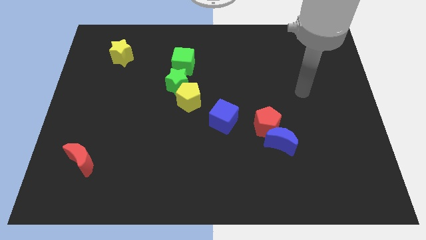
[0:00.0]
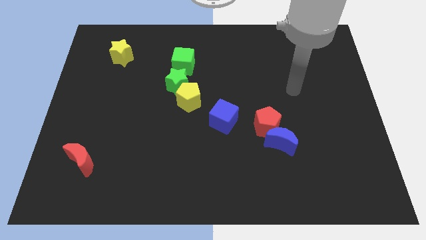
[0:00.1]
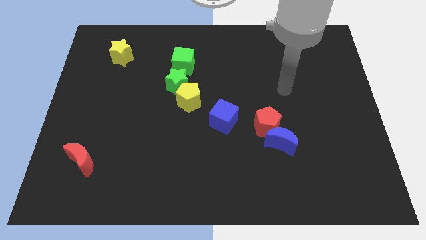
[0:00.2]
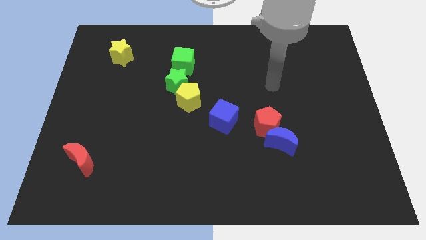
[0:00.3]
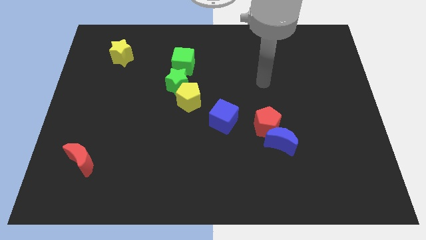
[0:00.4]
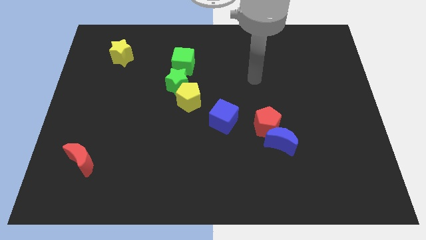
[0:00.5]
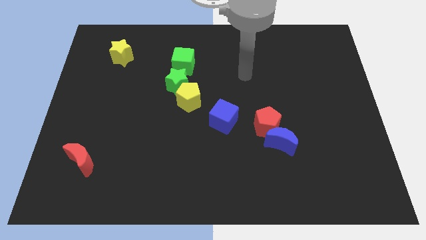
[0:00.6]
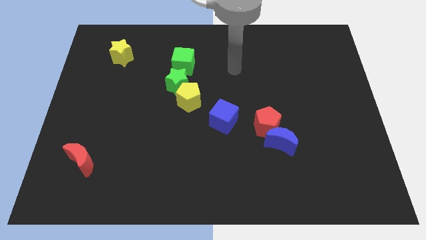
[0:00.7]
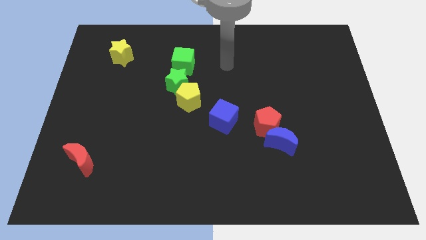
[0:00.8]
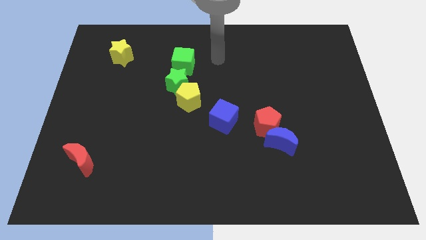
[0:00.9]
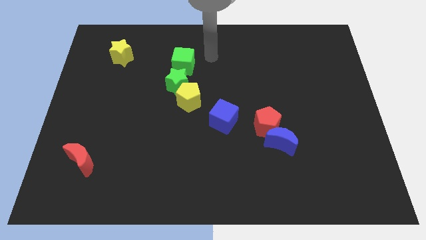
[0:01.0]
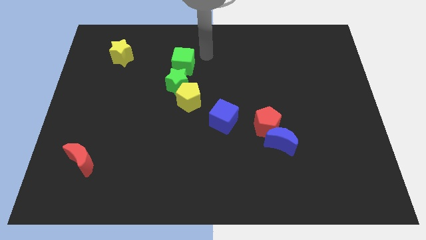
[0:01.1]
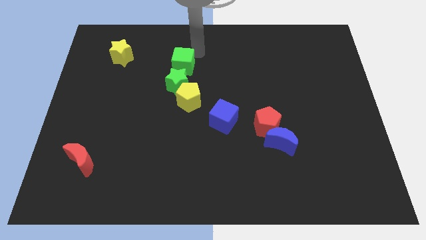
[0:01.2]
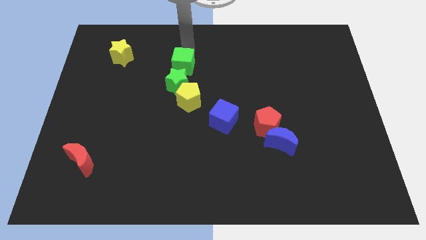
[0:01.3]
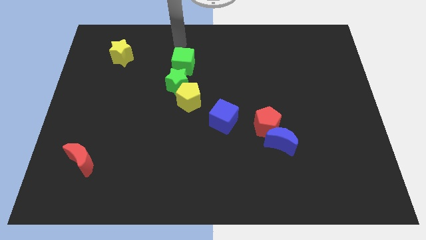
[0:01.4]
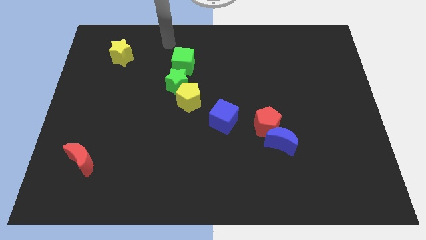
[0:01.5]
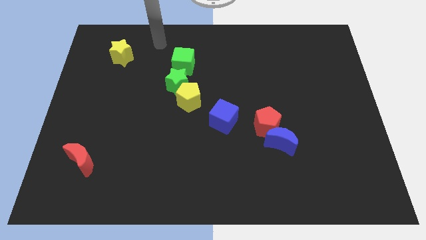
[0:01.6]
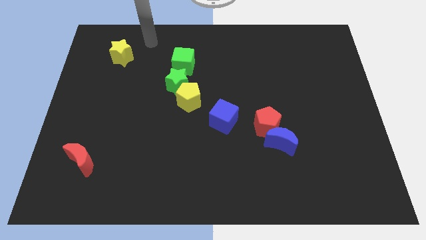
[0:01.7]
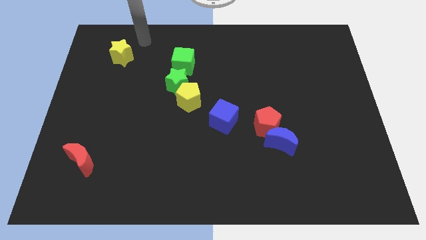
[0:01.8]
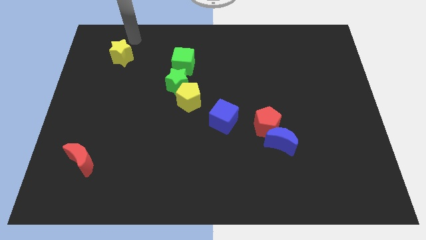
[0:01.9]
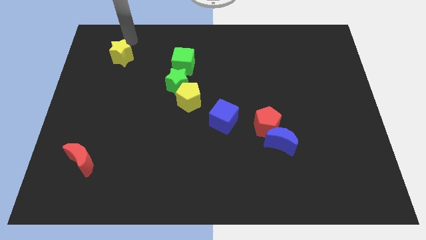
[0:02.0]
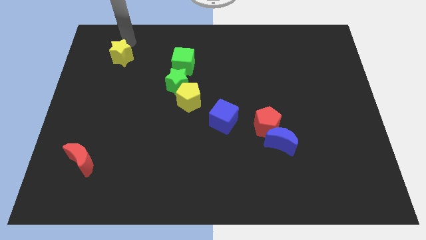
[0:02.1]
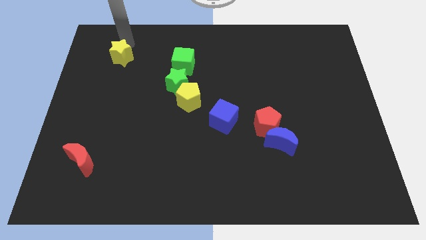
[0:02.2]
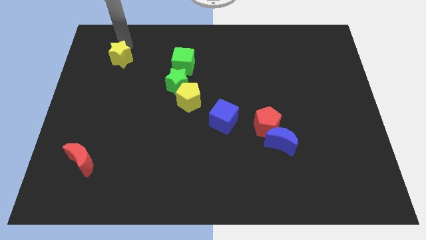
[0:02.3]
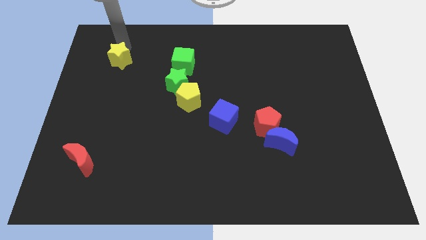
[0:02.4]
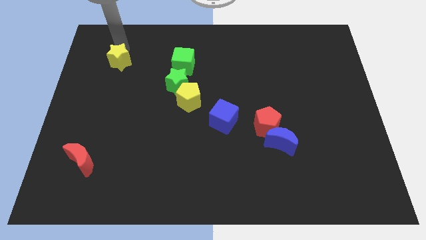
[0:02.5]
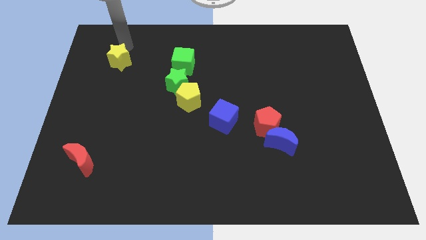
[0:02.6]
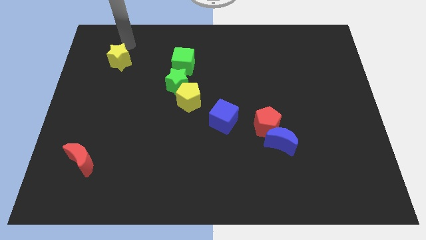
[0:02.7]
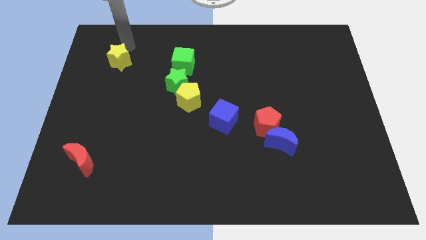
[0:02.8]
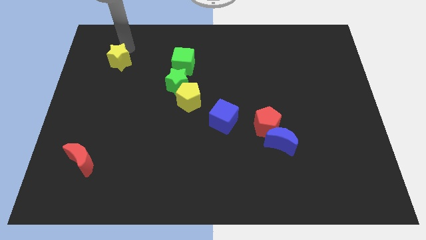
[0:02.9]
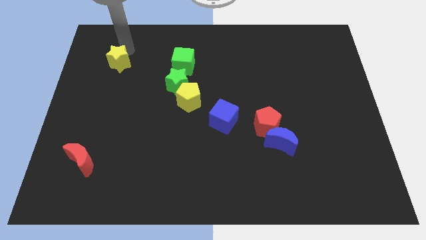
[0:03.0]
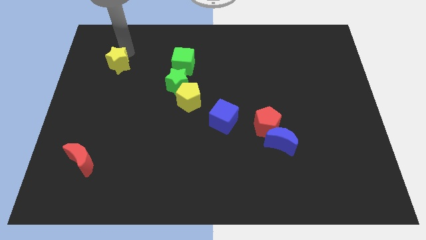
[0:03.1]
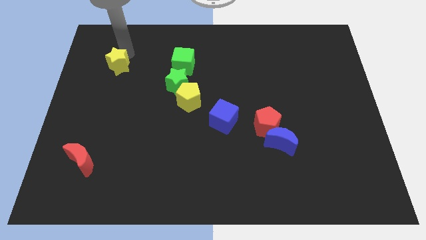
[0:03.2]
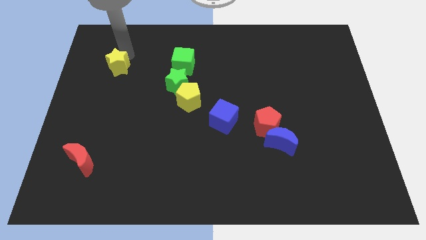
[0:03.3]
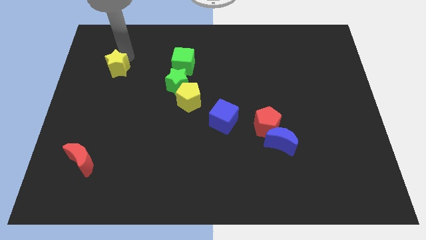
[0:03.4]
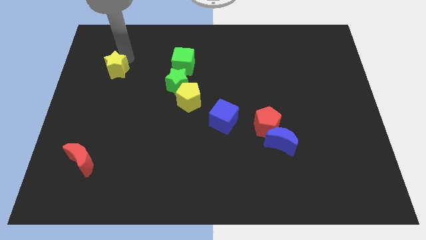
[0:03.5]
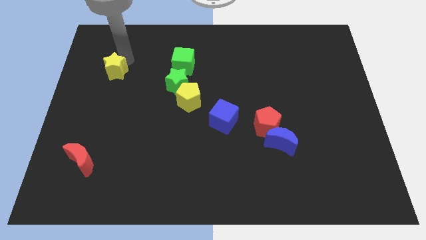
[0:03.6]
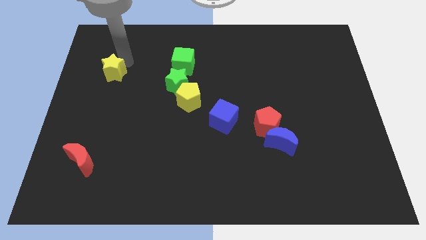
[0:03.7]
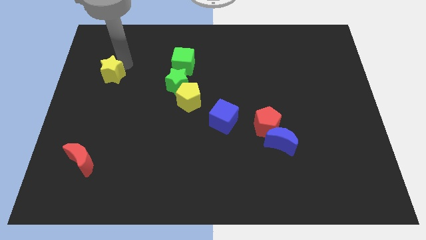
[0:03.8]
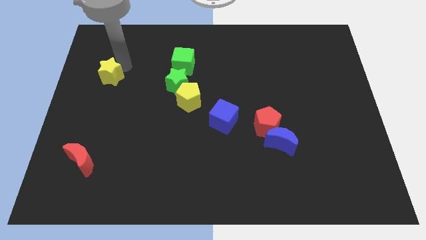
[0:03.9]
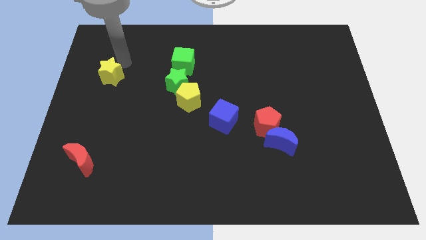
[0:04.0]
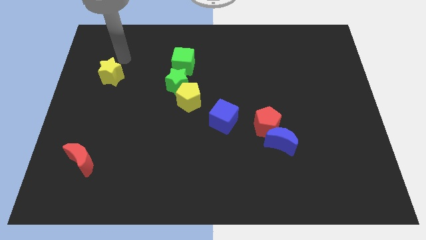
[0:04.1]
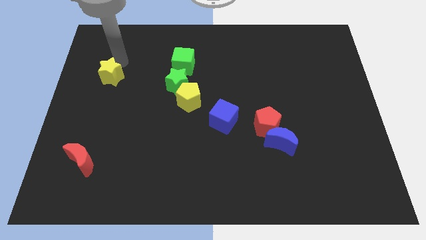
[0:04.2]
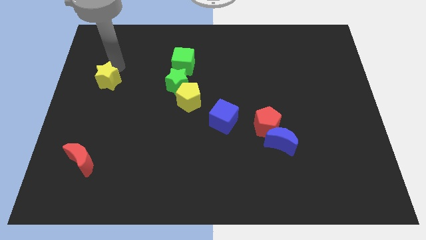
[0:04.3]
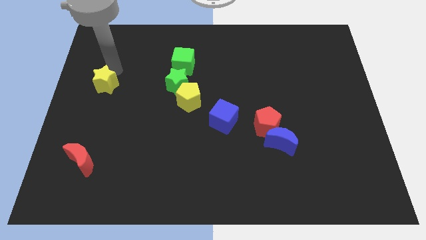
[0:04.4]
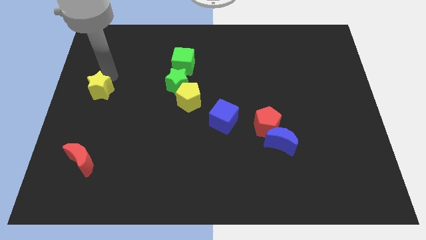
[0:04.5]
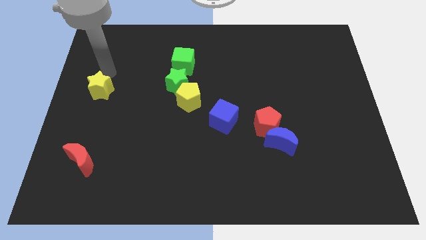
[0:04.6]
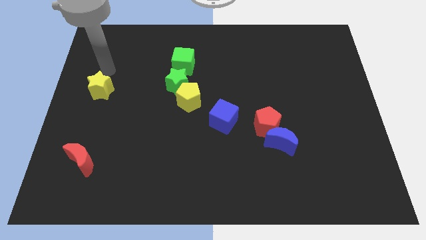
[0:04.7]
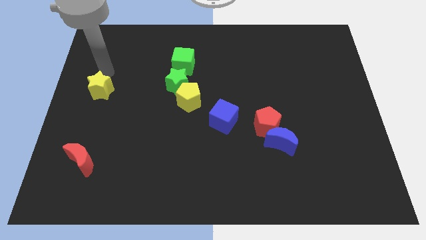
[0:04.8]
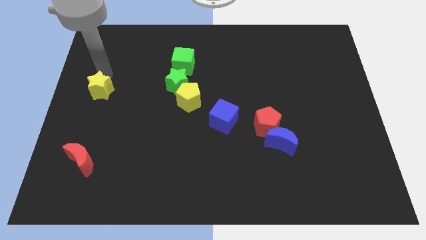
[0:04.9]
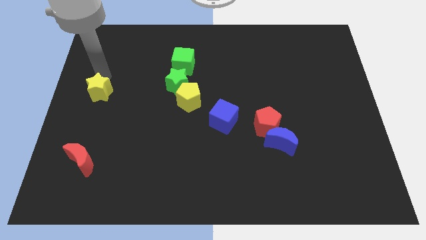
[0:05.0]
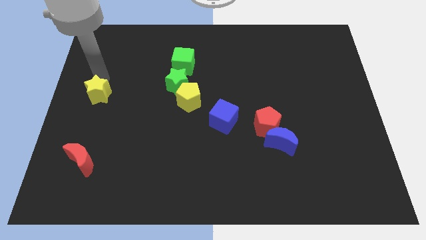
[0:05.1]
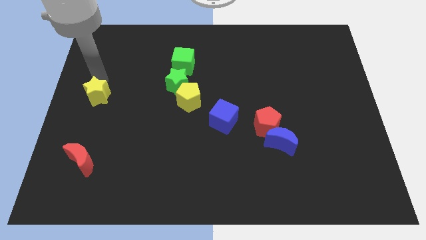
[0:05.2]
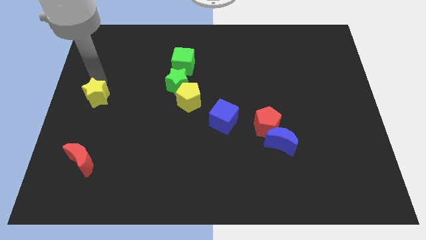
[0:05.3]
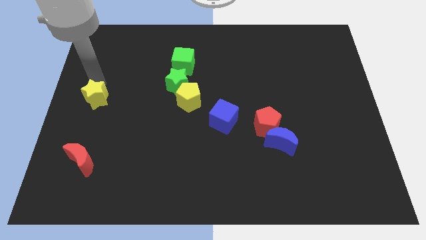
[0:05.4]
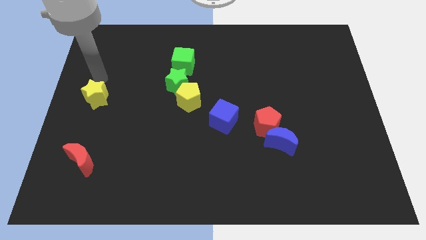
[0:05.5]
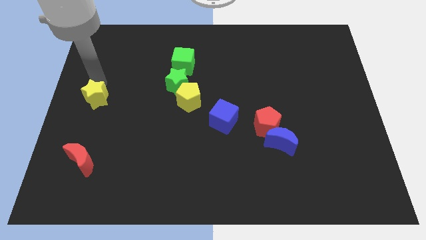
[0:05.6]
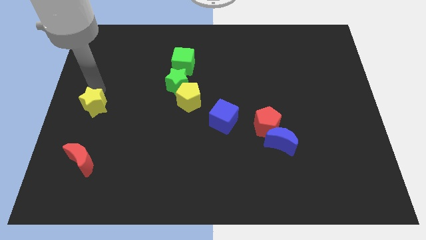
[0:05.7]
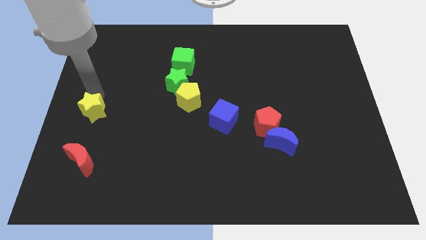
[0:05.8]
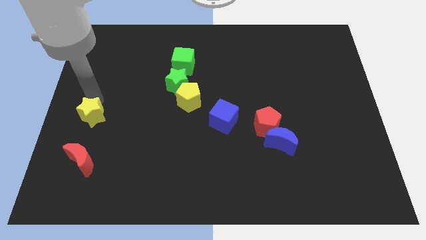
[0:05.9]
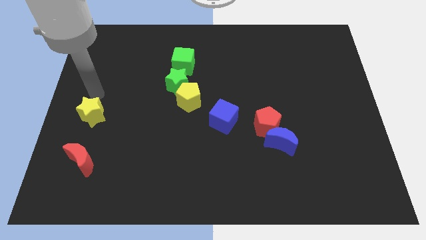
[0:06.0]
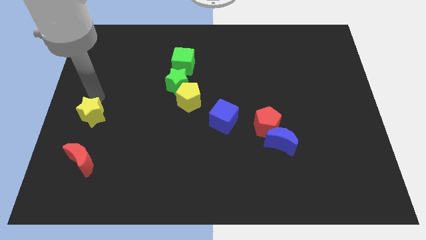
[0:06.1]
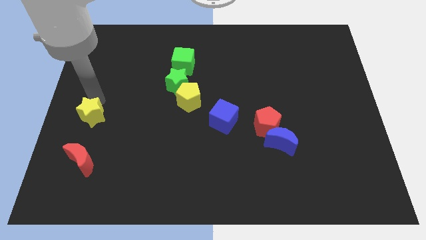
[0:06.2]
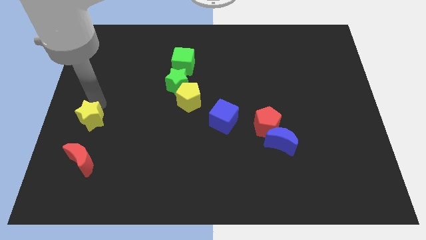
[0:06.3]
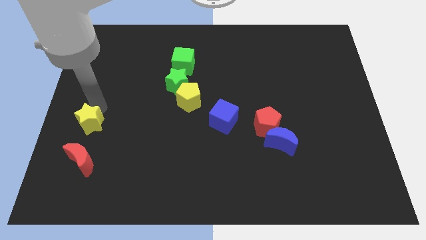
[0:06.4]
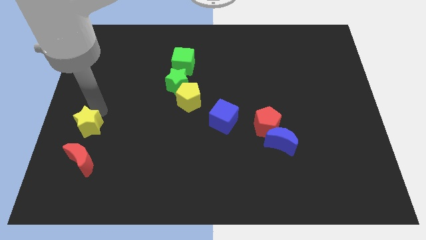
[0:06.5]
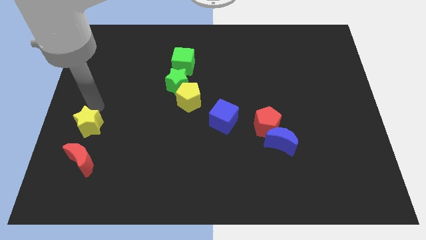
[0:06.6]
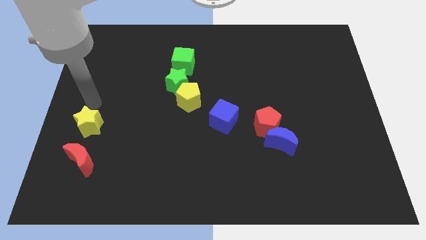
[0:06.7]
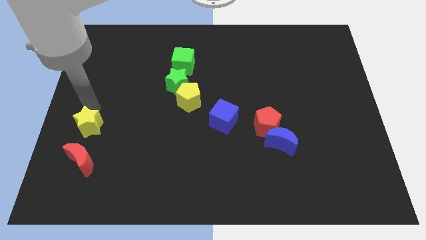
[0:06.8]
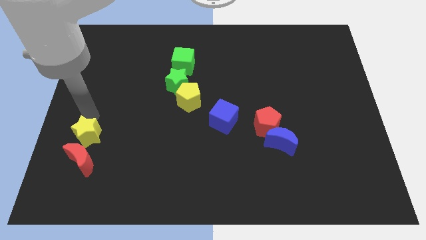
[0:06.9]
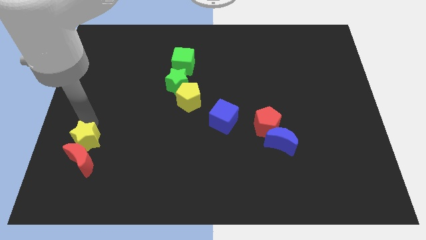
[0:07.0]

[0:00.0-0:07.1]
move the yellow star towards the red moon

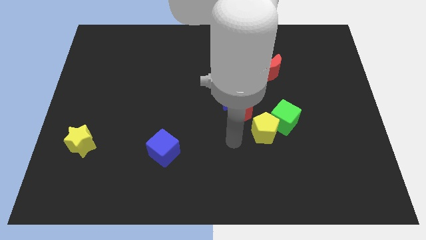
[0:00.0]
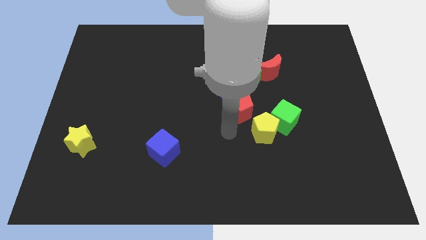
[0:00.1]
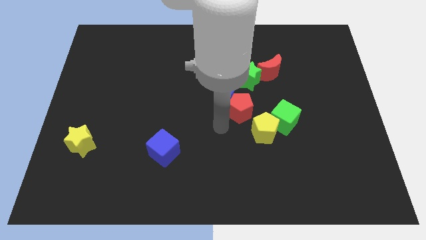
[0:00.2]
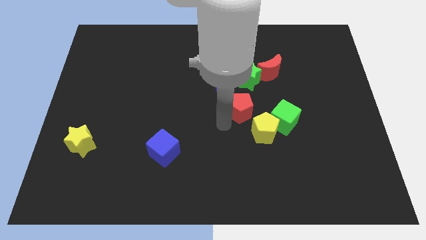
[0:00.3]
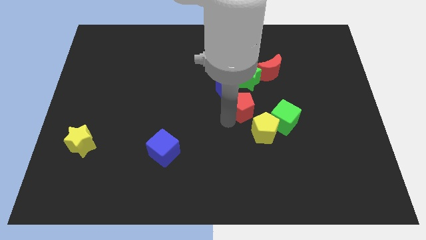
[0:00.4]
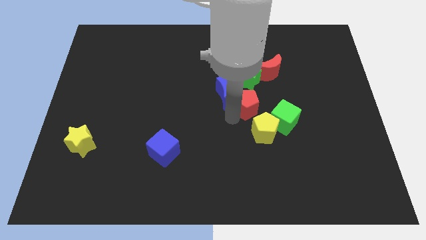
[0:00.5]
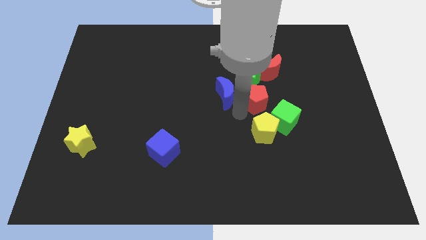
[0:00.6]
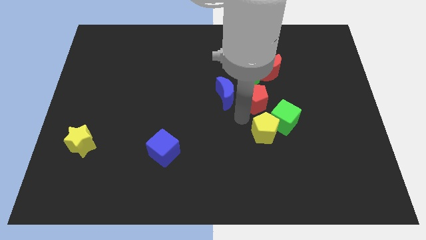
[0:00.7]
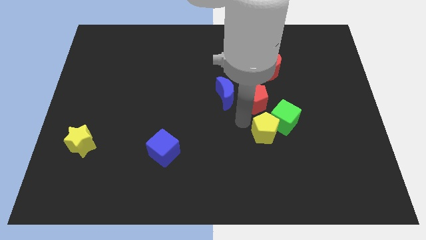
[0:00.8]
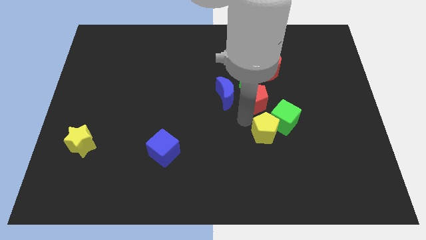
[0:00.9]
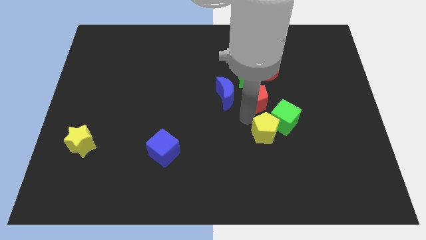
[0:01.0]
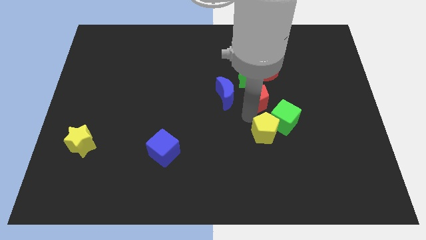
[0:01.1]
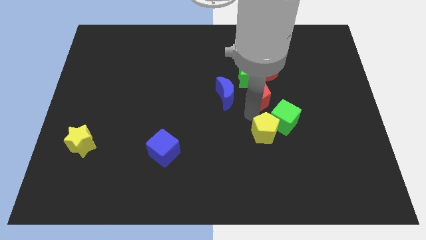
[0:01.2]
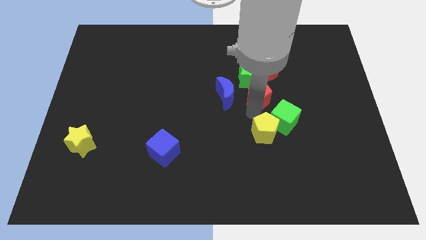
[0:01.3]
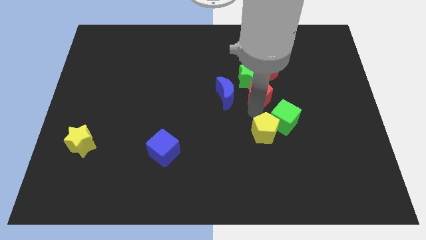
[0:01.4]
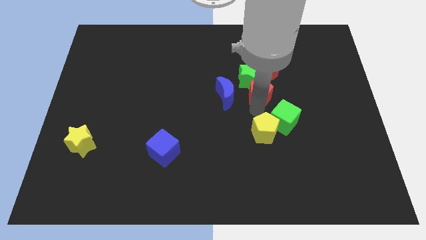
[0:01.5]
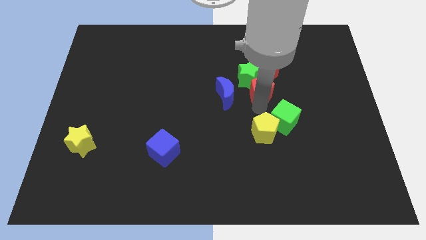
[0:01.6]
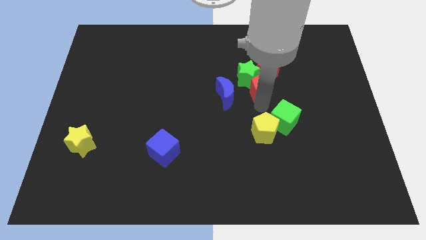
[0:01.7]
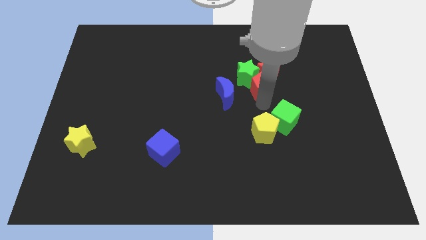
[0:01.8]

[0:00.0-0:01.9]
push the red pentagon towards the red moon
